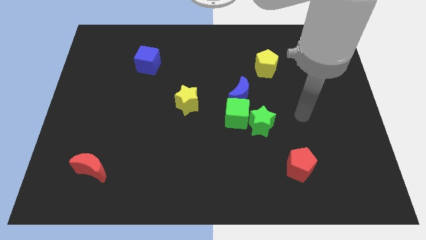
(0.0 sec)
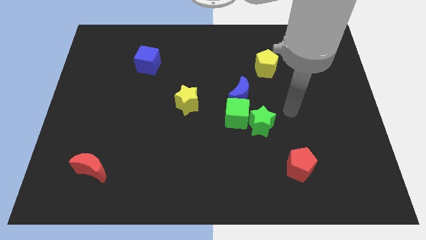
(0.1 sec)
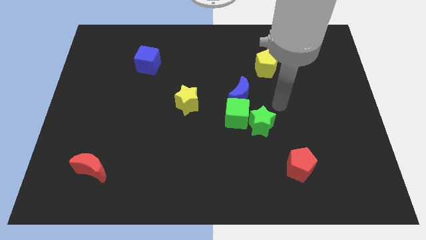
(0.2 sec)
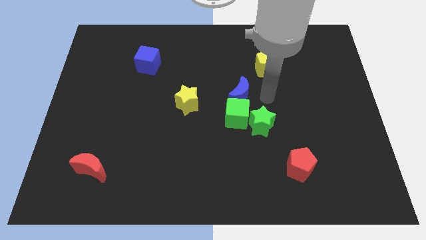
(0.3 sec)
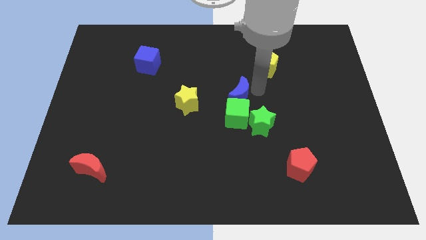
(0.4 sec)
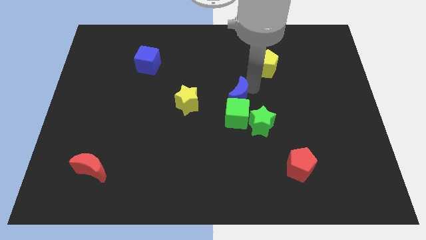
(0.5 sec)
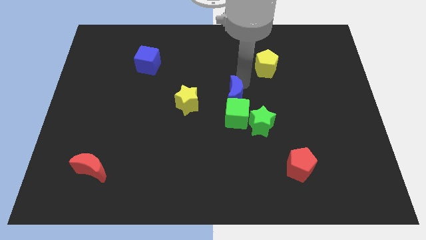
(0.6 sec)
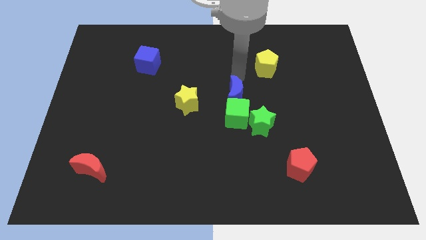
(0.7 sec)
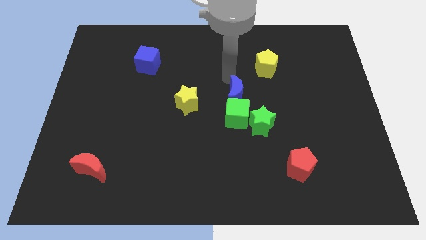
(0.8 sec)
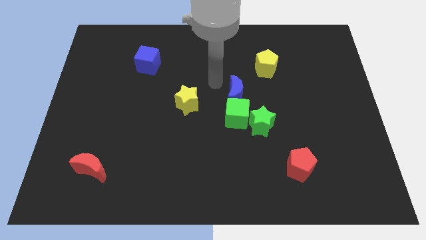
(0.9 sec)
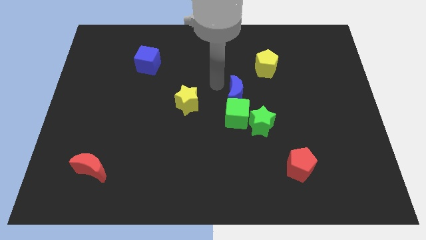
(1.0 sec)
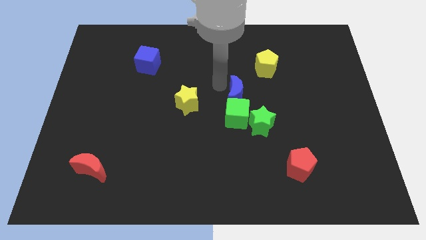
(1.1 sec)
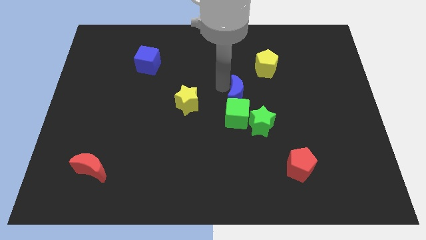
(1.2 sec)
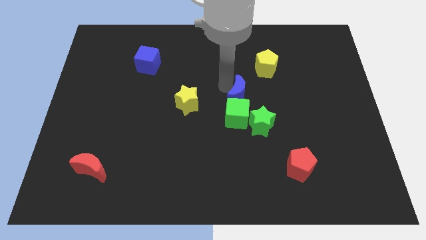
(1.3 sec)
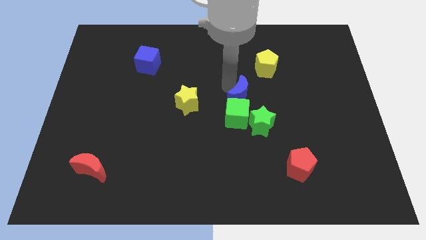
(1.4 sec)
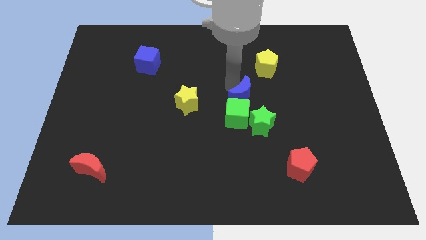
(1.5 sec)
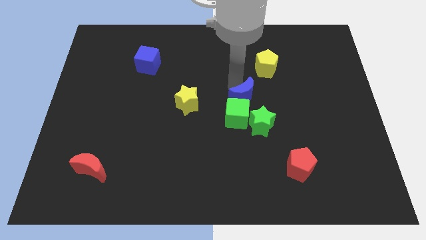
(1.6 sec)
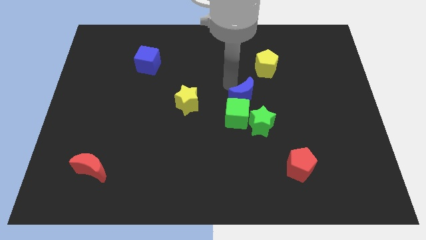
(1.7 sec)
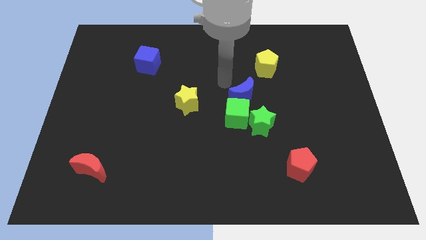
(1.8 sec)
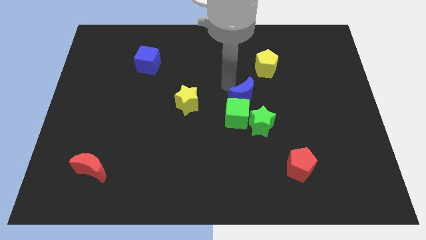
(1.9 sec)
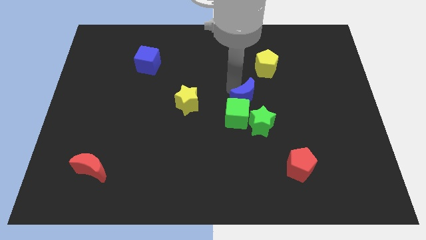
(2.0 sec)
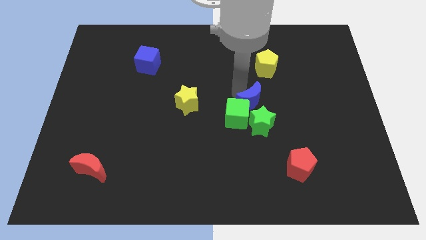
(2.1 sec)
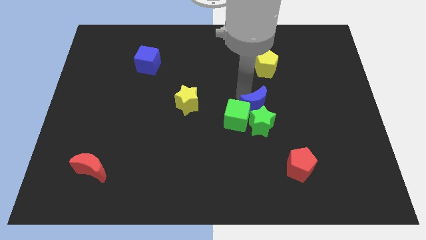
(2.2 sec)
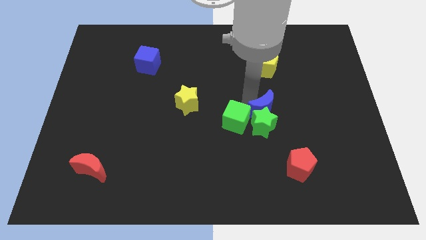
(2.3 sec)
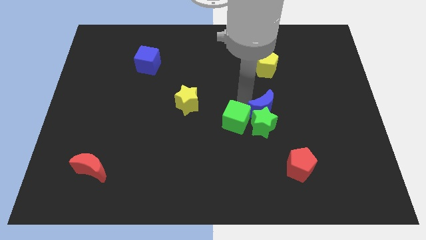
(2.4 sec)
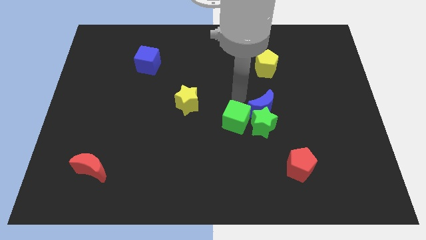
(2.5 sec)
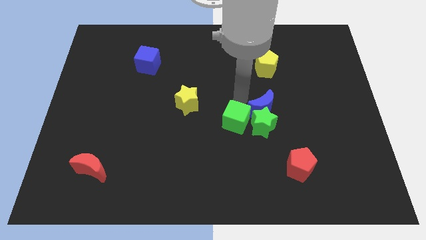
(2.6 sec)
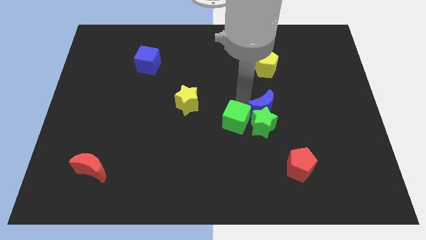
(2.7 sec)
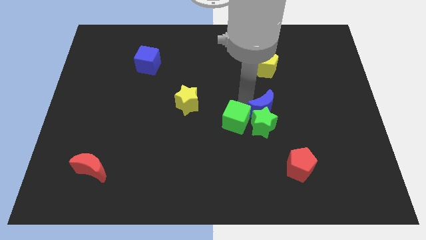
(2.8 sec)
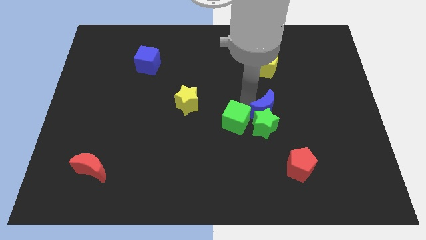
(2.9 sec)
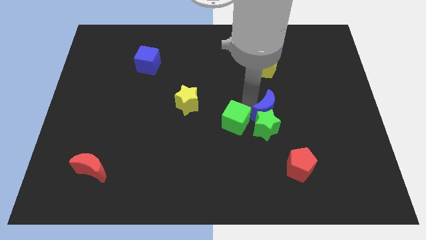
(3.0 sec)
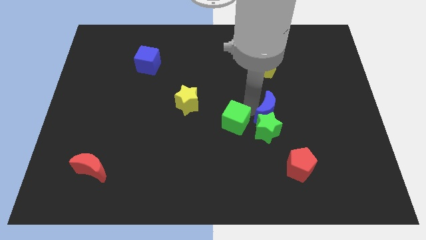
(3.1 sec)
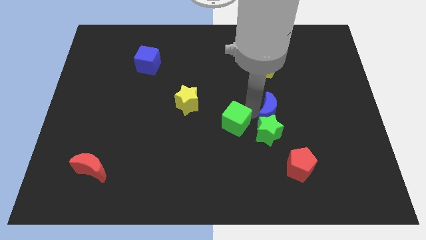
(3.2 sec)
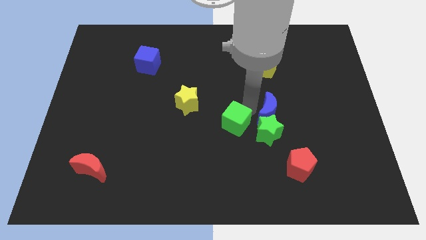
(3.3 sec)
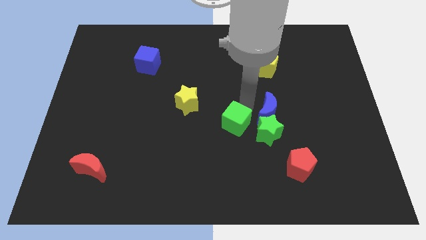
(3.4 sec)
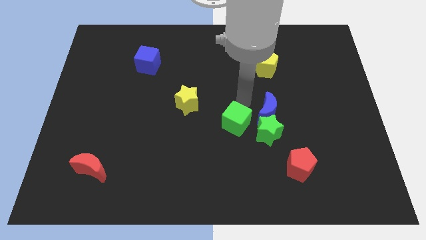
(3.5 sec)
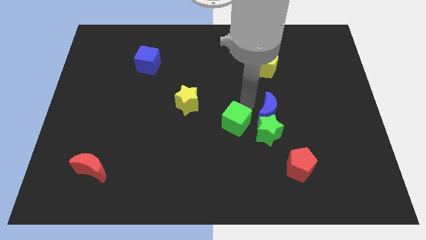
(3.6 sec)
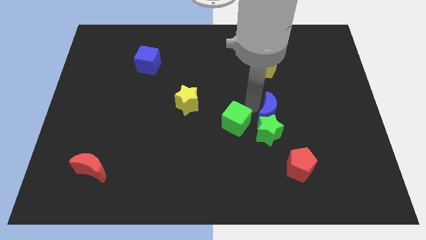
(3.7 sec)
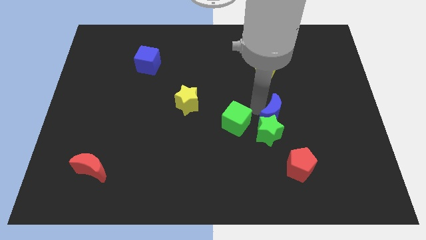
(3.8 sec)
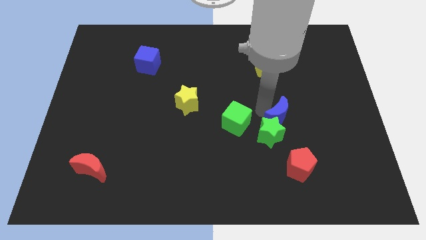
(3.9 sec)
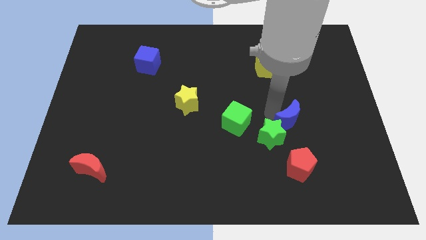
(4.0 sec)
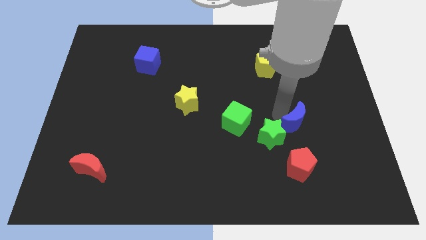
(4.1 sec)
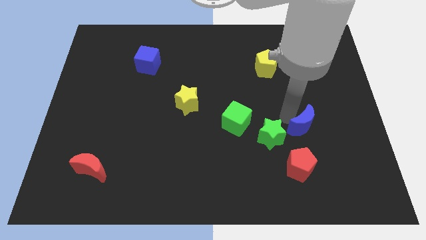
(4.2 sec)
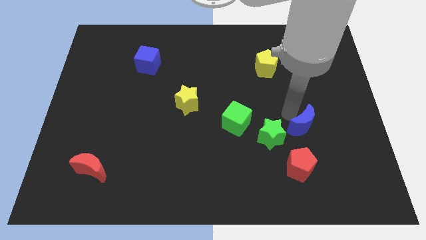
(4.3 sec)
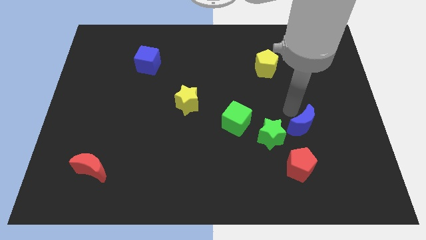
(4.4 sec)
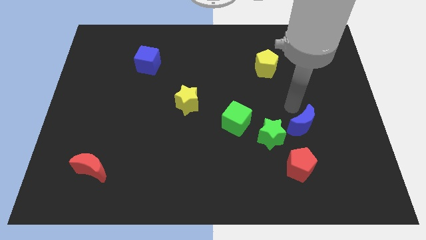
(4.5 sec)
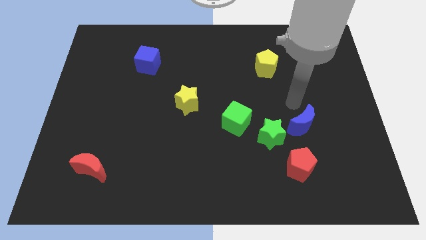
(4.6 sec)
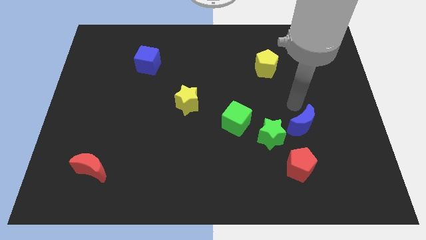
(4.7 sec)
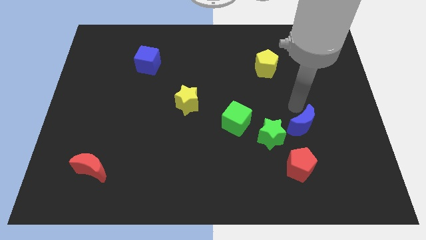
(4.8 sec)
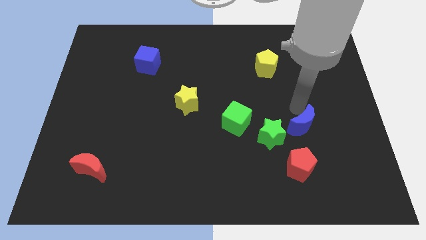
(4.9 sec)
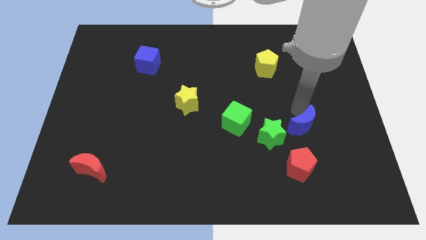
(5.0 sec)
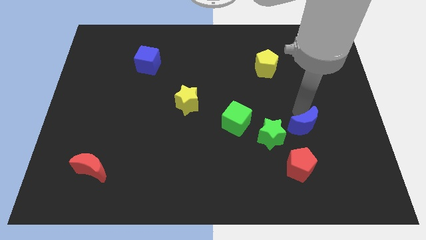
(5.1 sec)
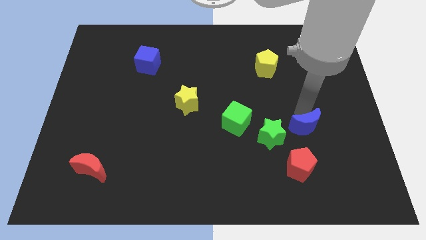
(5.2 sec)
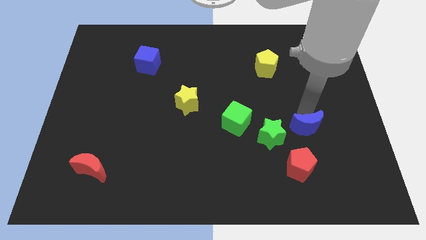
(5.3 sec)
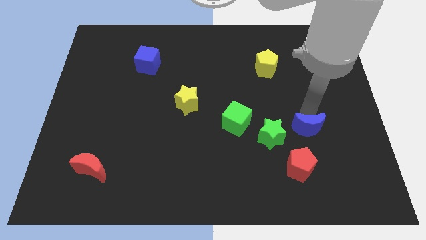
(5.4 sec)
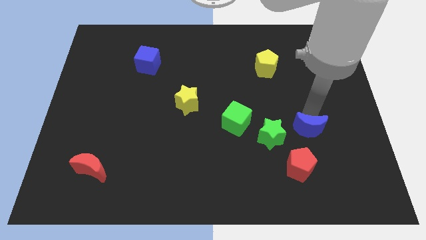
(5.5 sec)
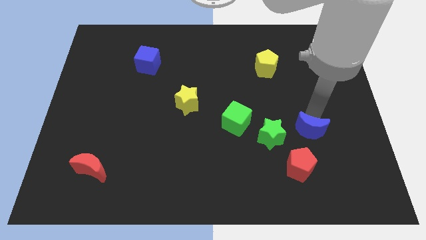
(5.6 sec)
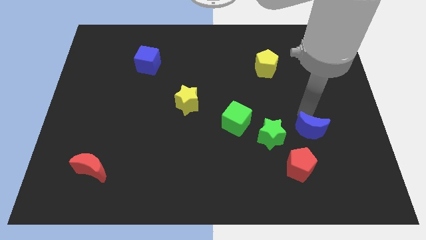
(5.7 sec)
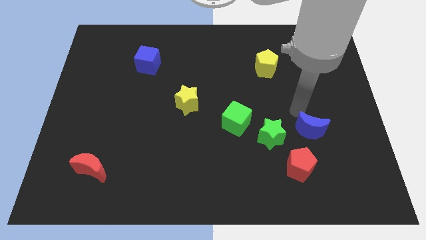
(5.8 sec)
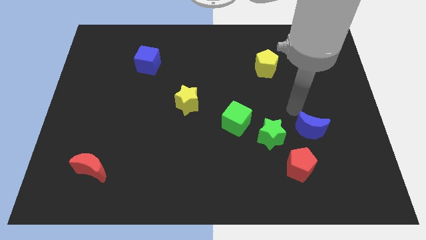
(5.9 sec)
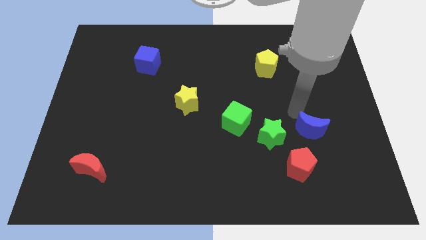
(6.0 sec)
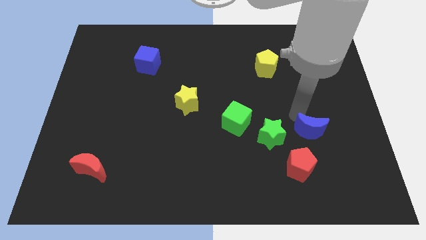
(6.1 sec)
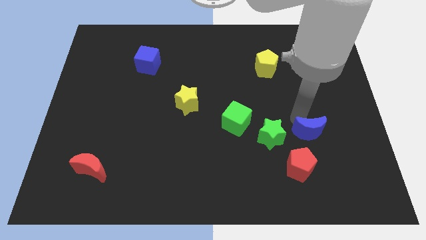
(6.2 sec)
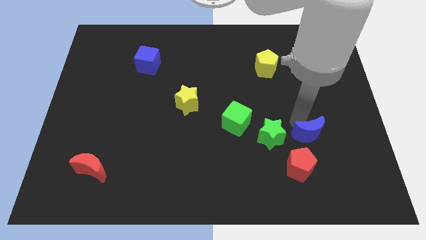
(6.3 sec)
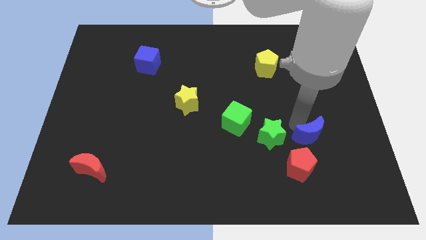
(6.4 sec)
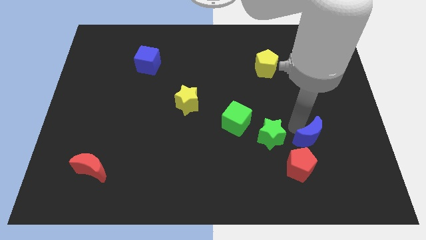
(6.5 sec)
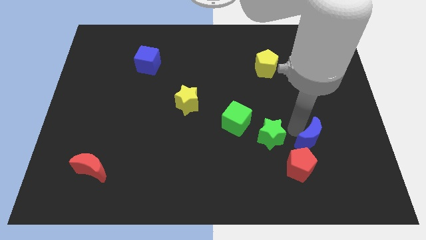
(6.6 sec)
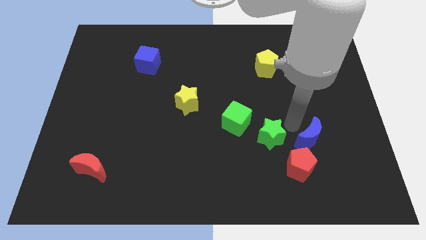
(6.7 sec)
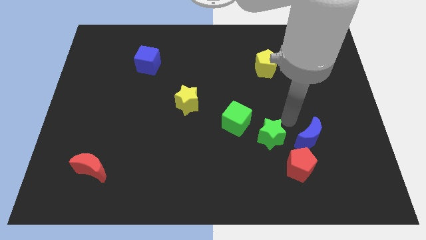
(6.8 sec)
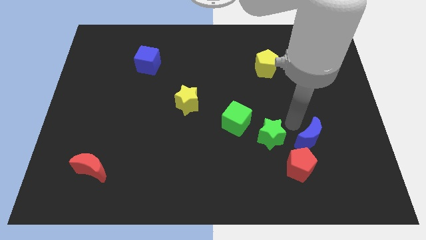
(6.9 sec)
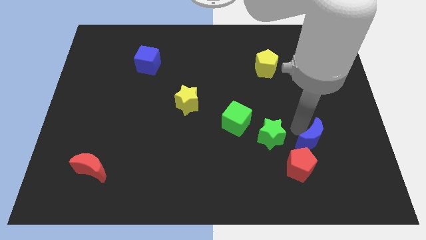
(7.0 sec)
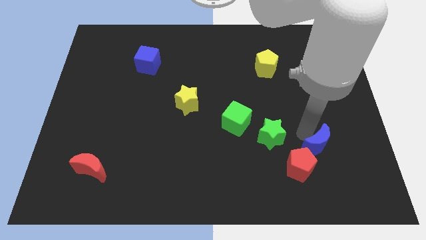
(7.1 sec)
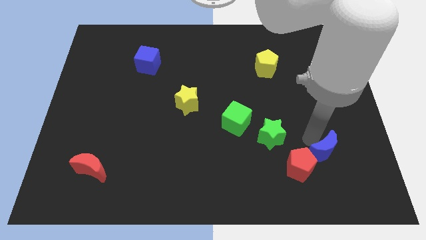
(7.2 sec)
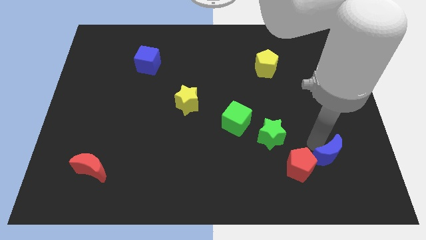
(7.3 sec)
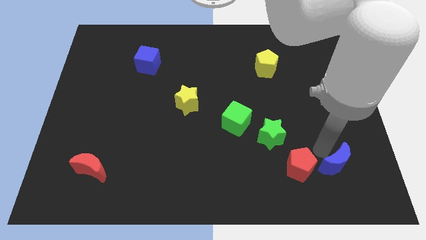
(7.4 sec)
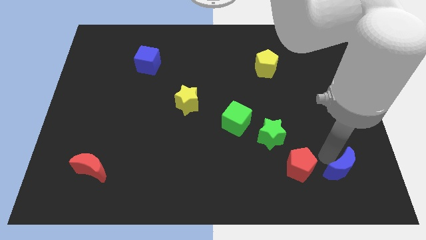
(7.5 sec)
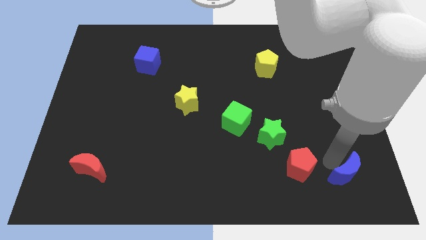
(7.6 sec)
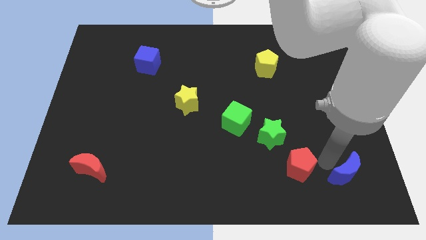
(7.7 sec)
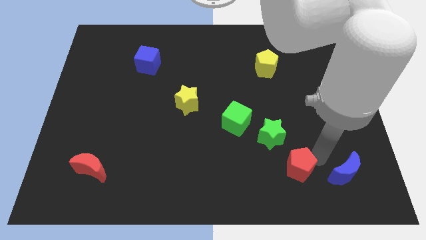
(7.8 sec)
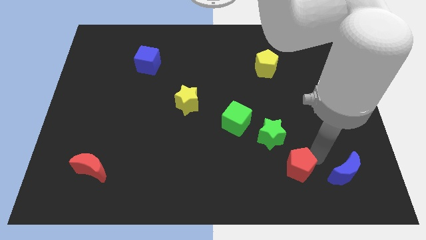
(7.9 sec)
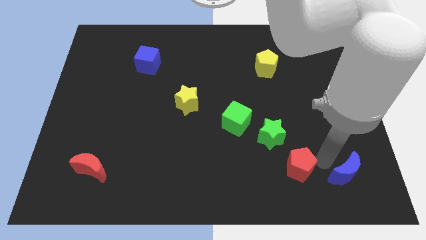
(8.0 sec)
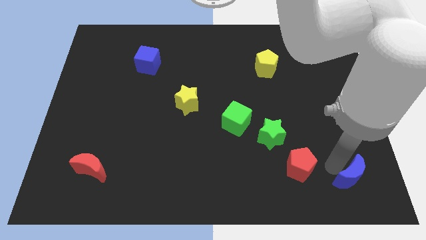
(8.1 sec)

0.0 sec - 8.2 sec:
push the blue moon to the bottom right
